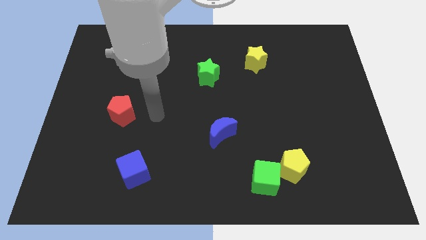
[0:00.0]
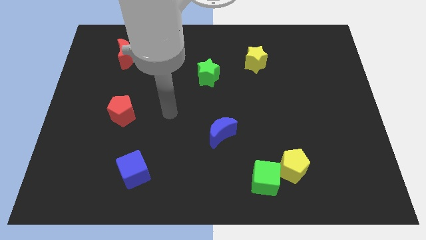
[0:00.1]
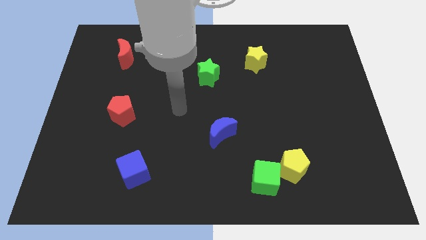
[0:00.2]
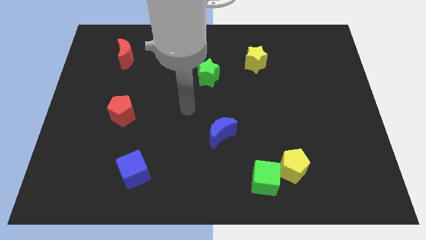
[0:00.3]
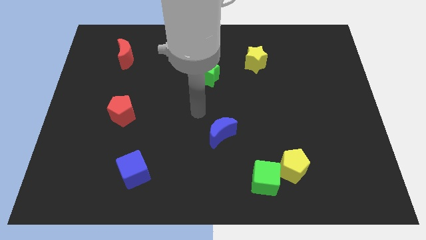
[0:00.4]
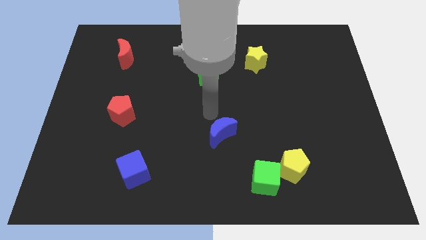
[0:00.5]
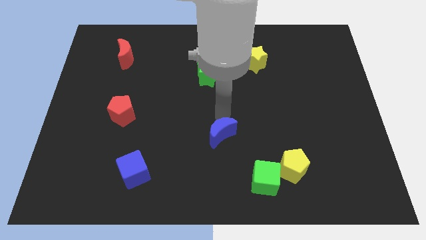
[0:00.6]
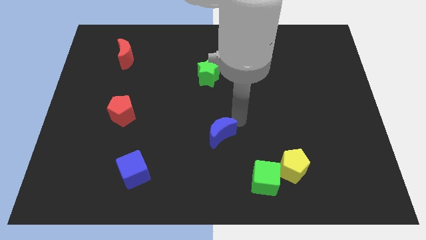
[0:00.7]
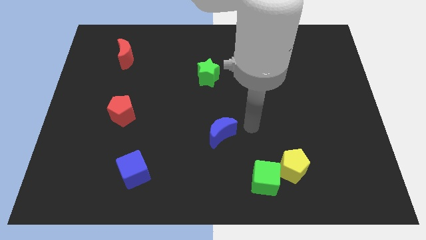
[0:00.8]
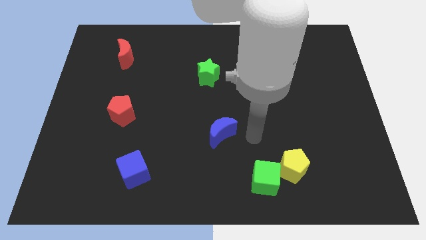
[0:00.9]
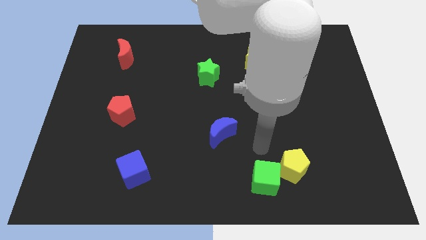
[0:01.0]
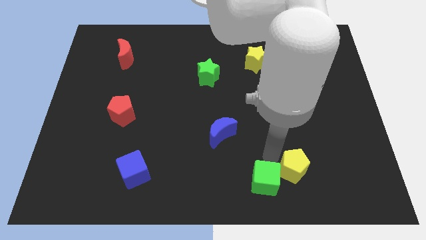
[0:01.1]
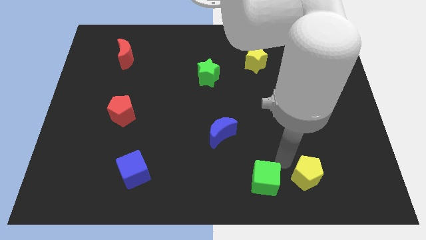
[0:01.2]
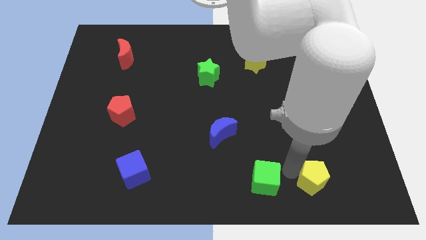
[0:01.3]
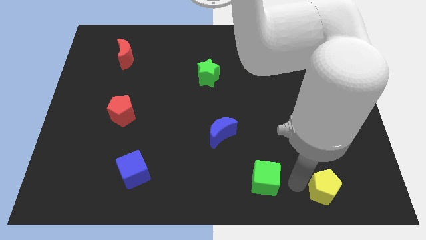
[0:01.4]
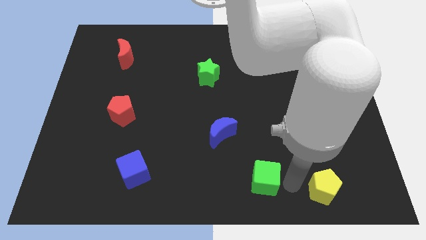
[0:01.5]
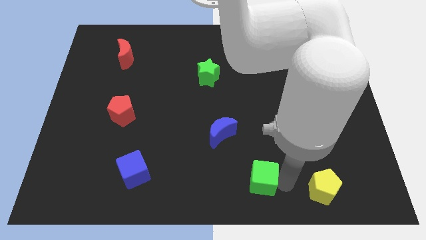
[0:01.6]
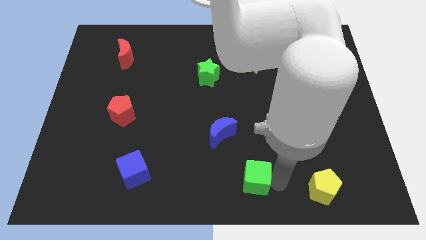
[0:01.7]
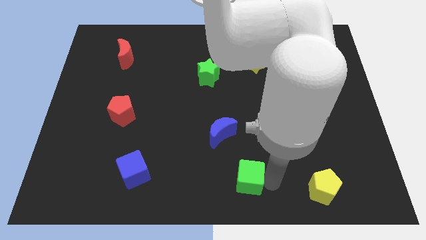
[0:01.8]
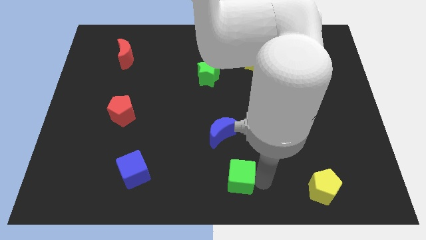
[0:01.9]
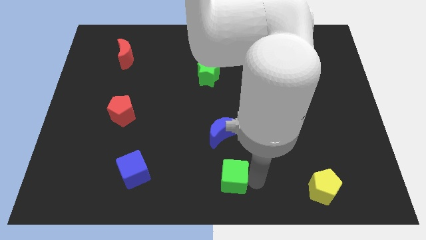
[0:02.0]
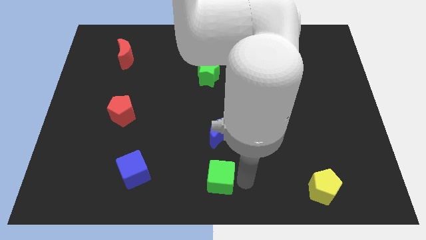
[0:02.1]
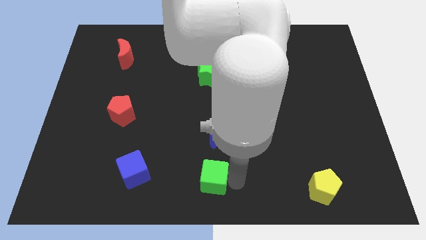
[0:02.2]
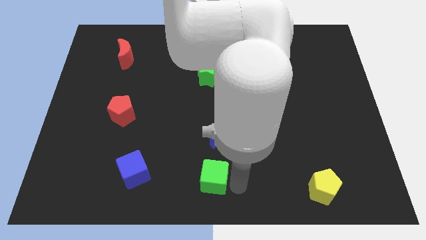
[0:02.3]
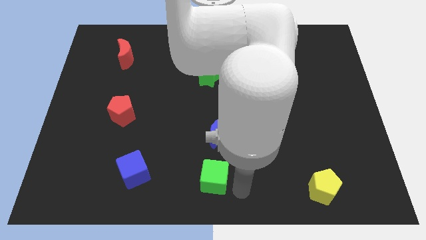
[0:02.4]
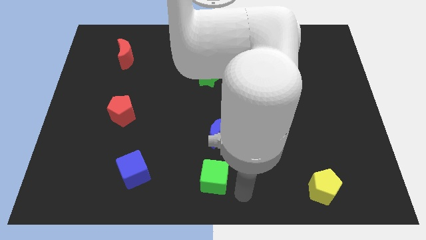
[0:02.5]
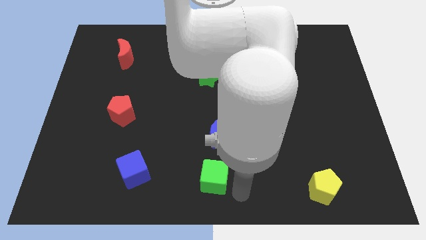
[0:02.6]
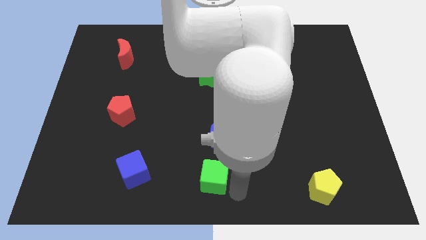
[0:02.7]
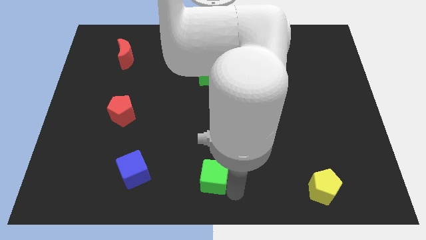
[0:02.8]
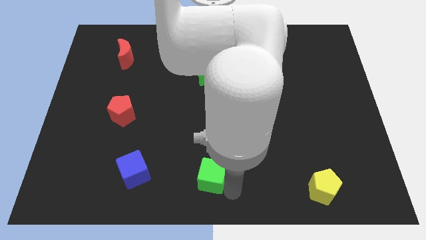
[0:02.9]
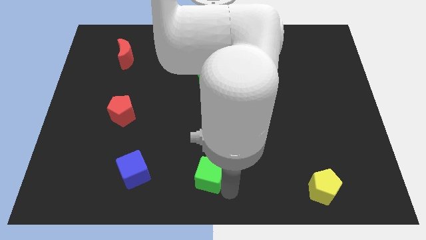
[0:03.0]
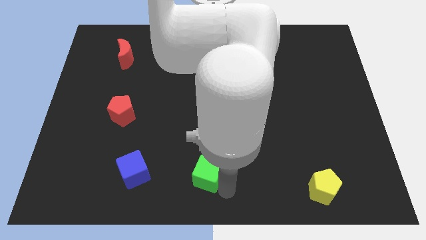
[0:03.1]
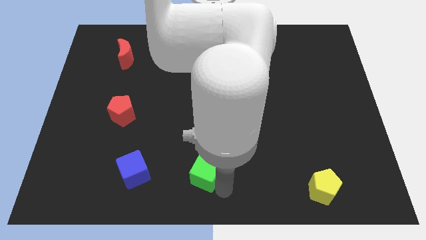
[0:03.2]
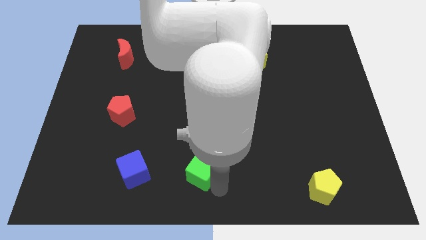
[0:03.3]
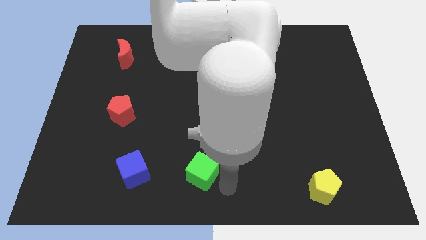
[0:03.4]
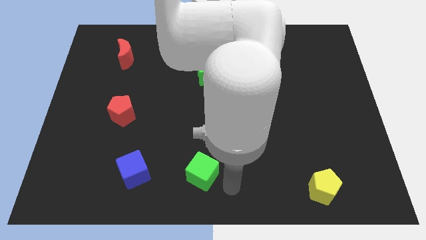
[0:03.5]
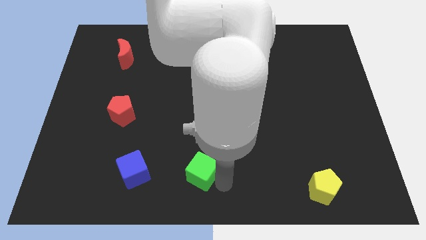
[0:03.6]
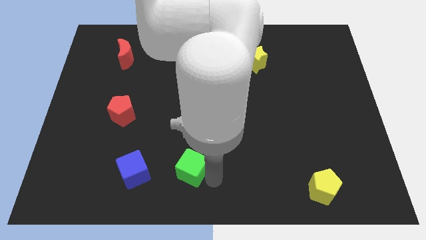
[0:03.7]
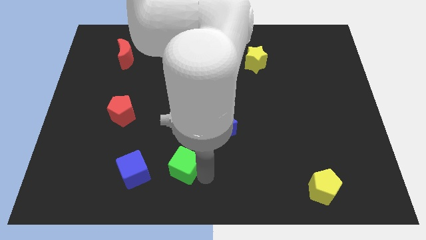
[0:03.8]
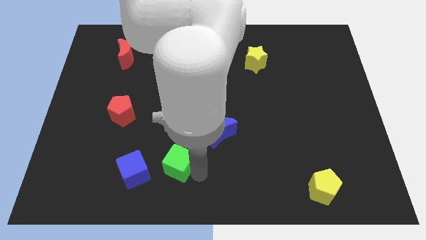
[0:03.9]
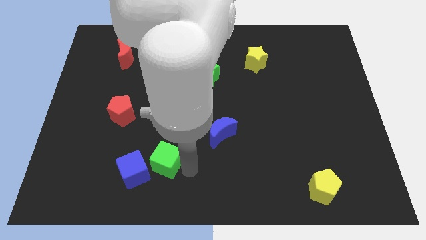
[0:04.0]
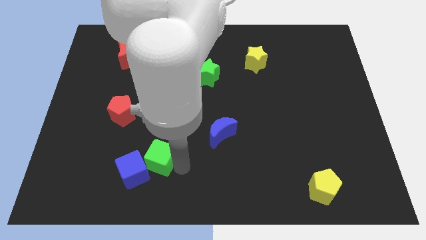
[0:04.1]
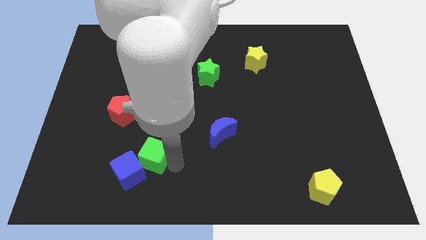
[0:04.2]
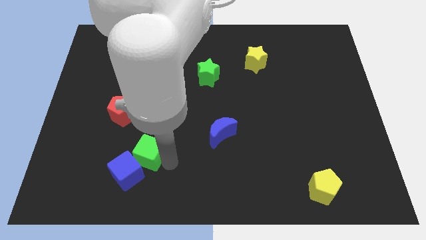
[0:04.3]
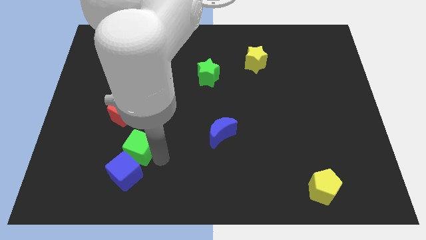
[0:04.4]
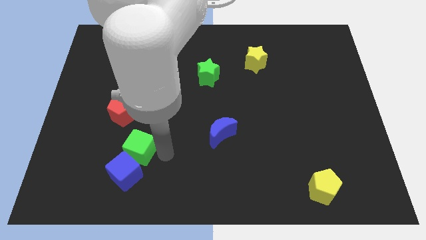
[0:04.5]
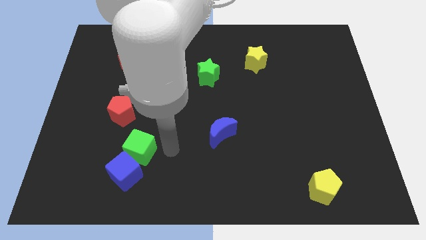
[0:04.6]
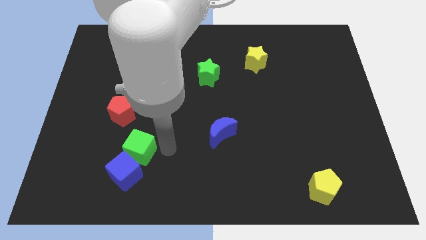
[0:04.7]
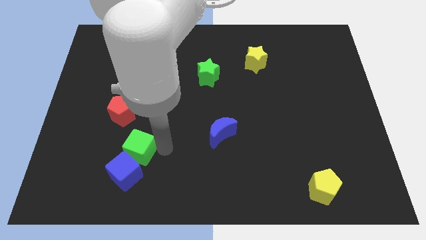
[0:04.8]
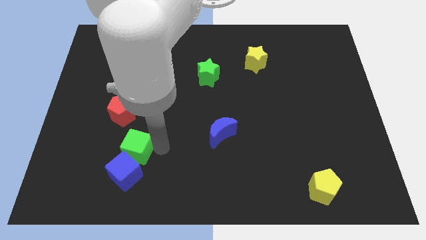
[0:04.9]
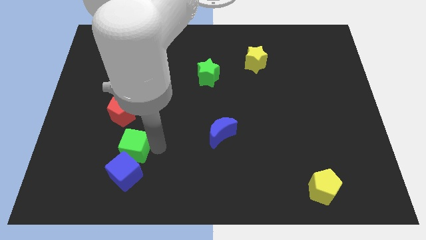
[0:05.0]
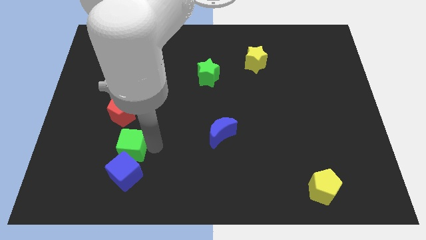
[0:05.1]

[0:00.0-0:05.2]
move the green cube to the top left of the blue cube

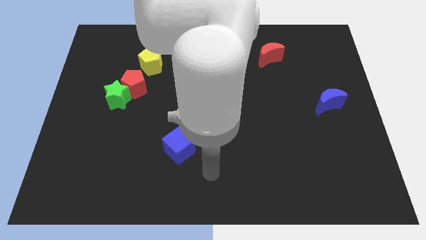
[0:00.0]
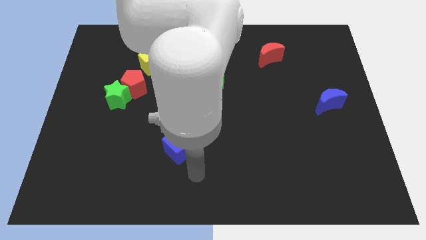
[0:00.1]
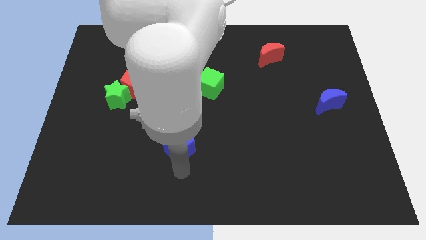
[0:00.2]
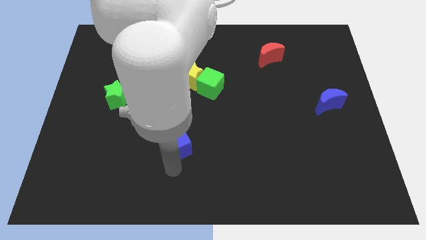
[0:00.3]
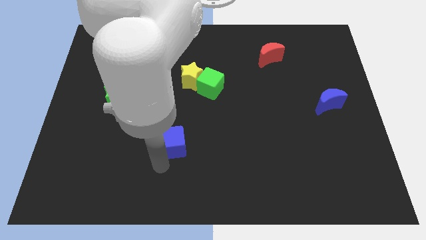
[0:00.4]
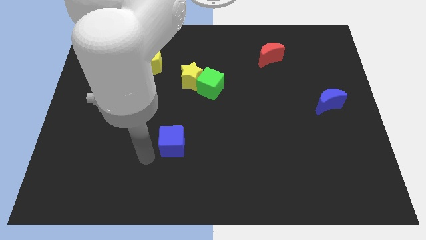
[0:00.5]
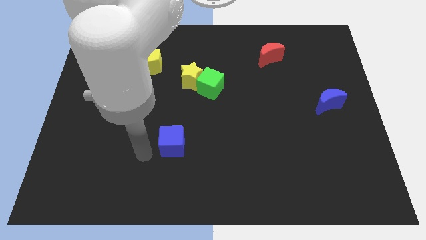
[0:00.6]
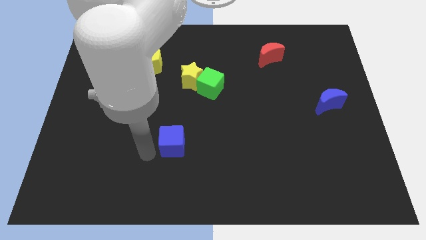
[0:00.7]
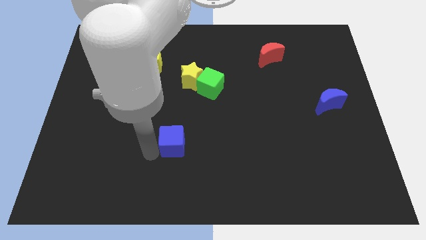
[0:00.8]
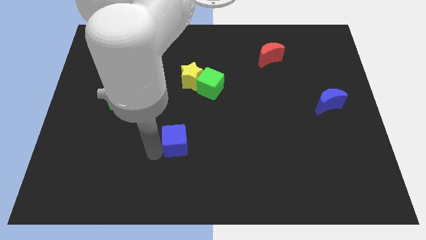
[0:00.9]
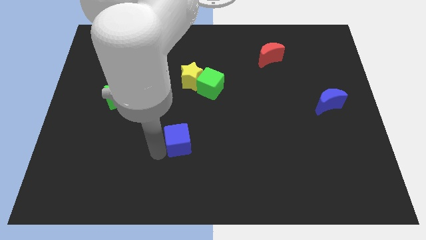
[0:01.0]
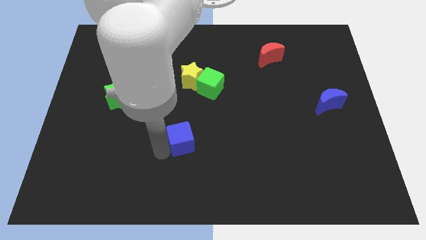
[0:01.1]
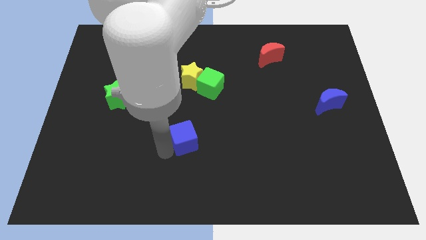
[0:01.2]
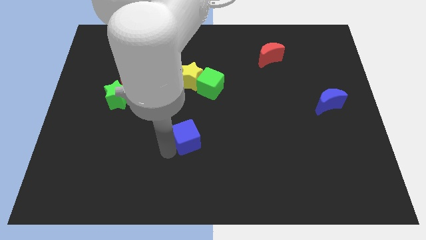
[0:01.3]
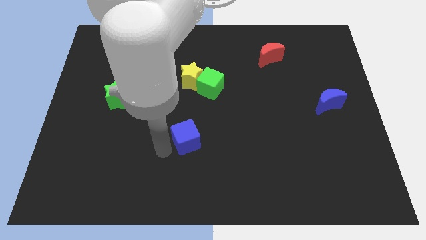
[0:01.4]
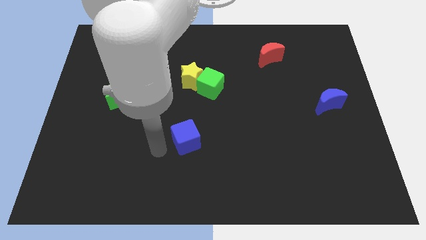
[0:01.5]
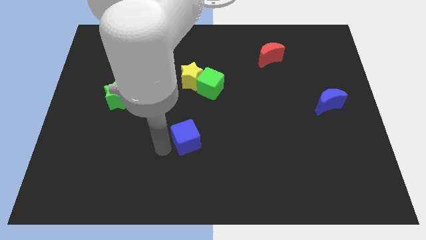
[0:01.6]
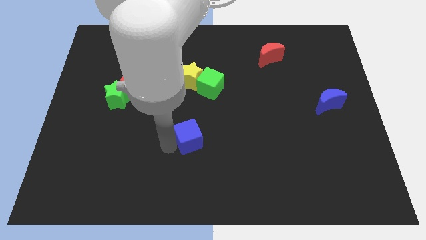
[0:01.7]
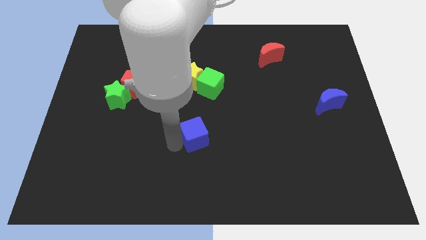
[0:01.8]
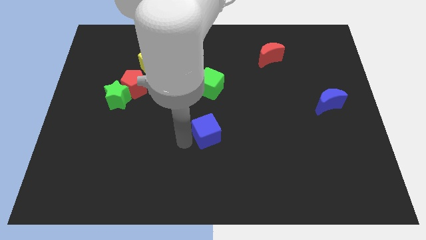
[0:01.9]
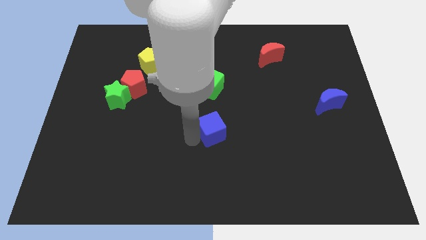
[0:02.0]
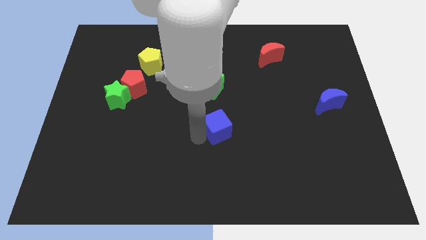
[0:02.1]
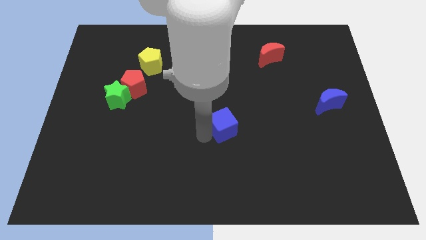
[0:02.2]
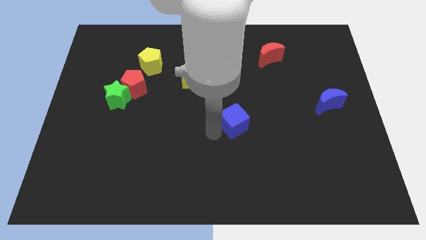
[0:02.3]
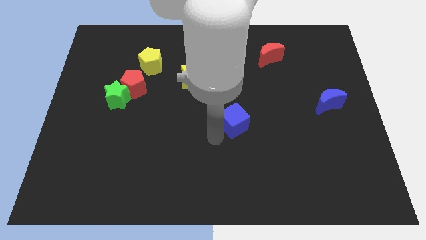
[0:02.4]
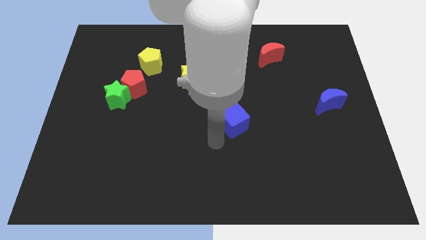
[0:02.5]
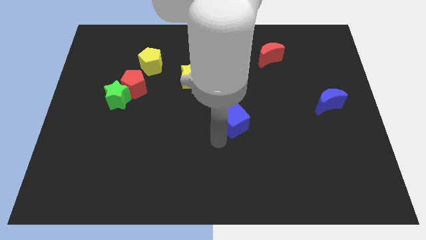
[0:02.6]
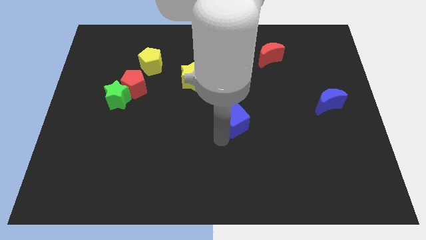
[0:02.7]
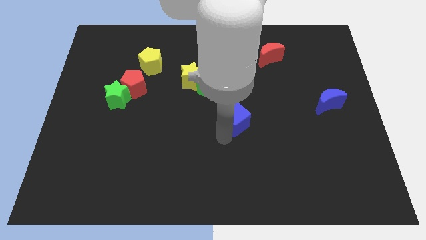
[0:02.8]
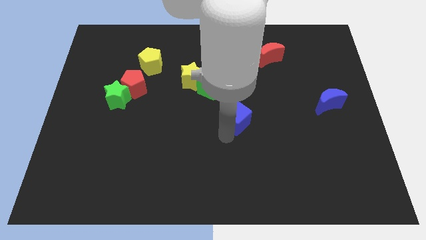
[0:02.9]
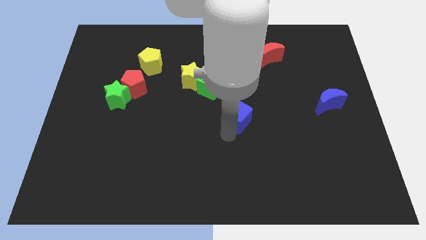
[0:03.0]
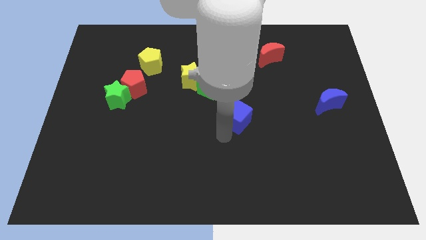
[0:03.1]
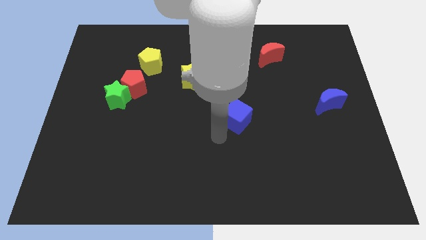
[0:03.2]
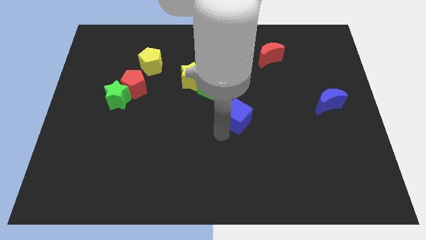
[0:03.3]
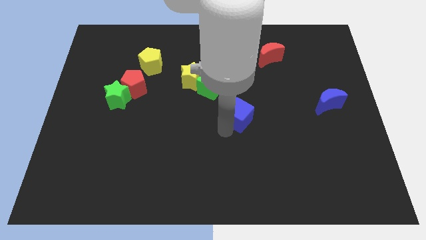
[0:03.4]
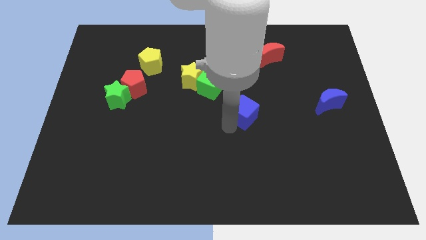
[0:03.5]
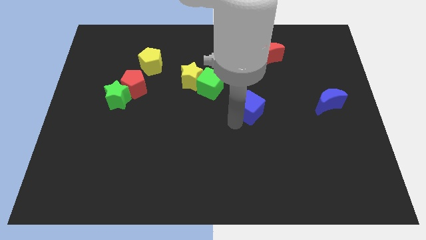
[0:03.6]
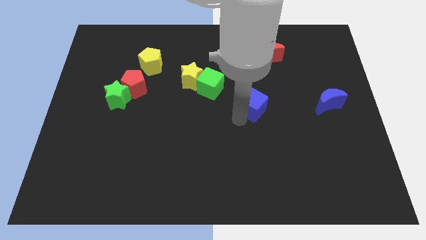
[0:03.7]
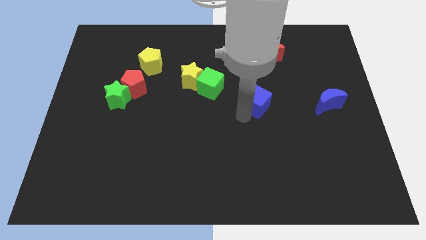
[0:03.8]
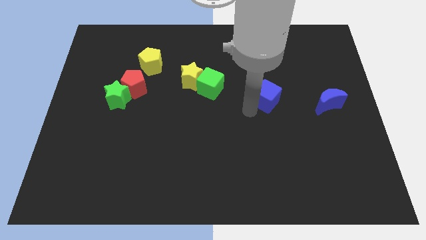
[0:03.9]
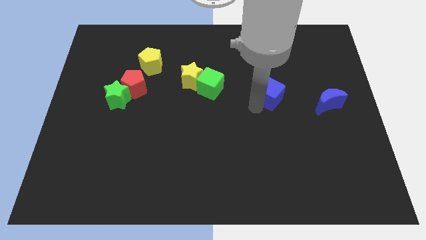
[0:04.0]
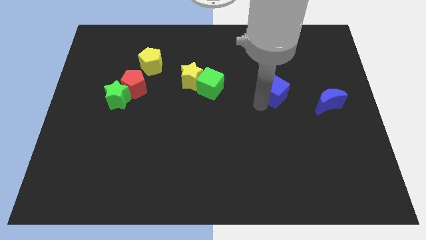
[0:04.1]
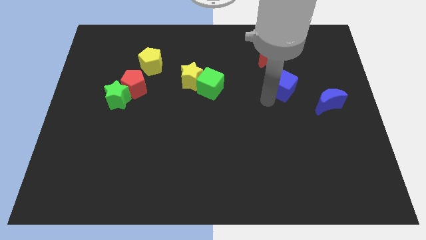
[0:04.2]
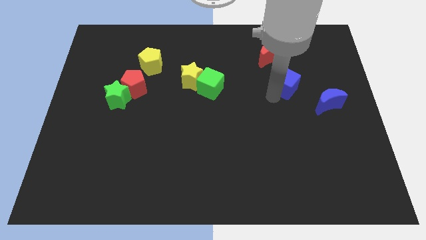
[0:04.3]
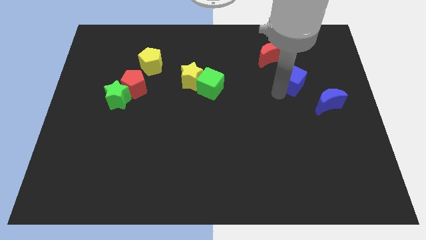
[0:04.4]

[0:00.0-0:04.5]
push the blue cube diagonally down and to the right of the red moon
